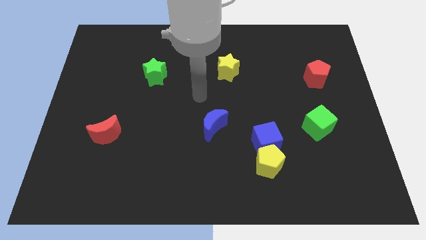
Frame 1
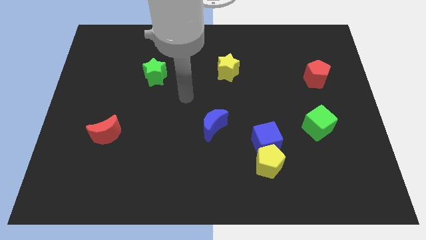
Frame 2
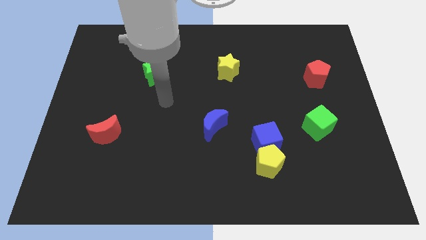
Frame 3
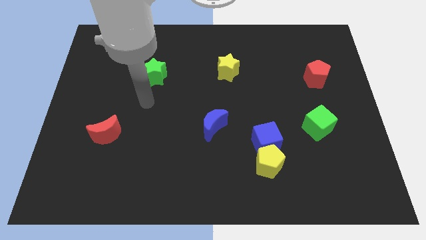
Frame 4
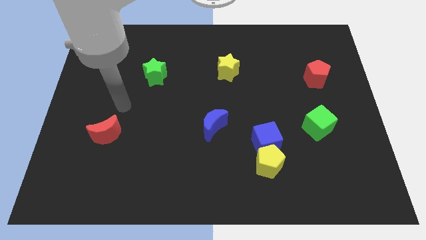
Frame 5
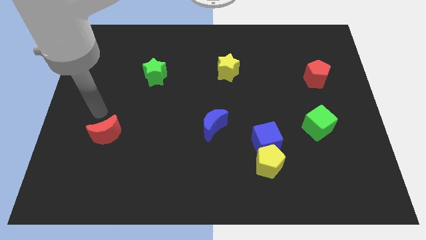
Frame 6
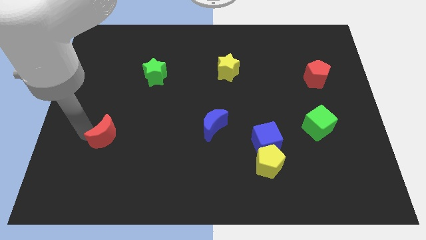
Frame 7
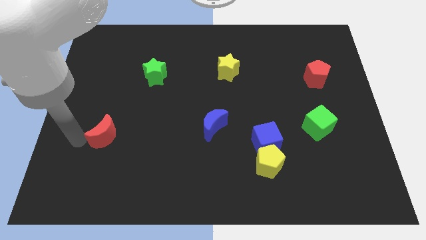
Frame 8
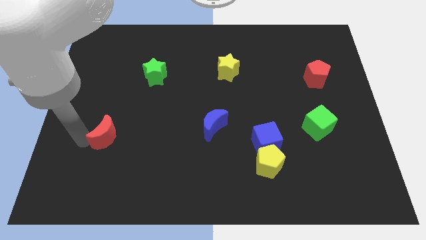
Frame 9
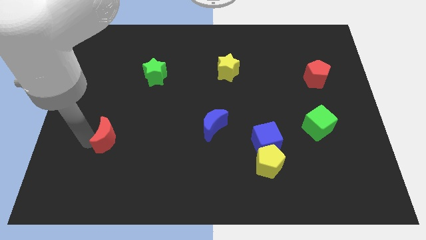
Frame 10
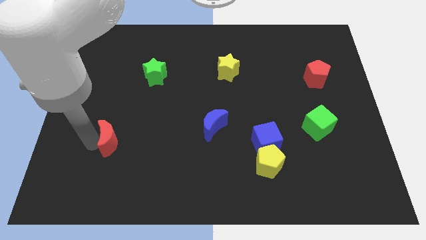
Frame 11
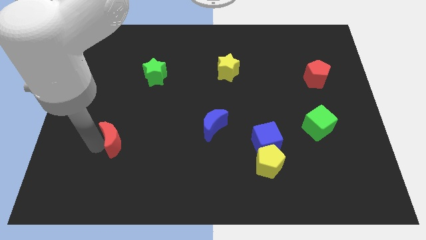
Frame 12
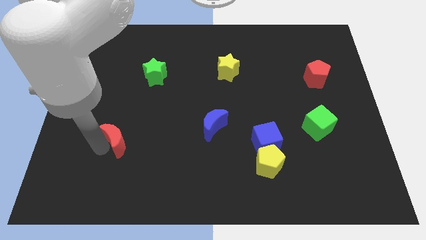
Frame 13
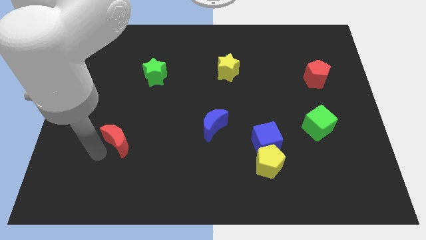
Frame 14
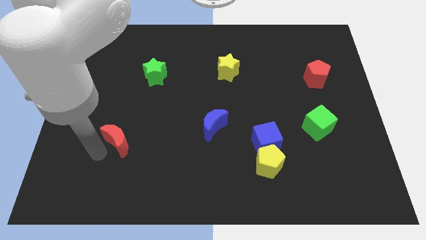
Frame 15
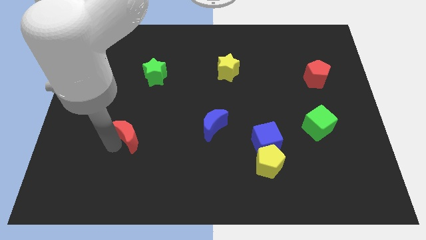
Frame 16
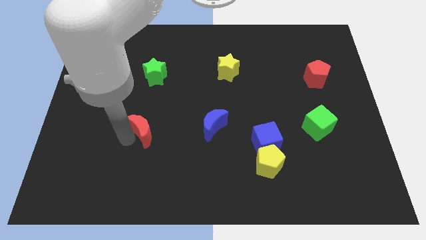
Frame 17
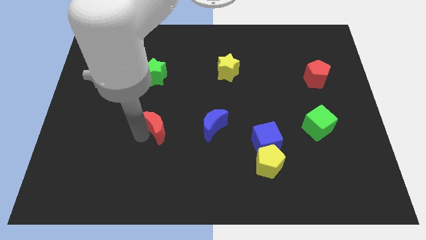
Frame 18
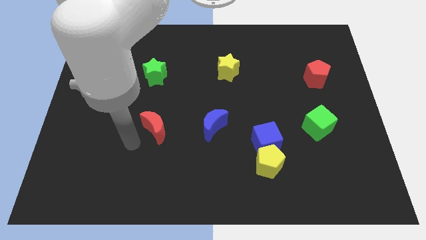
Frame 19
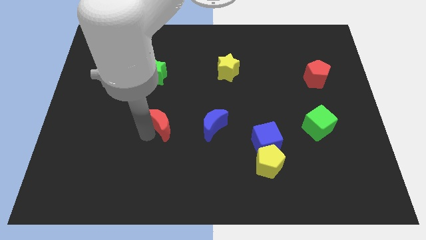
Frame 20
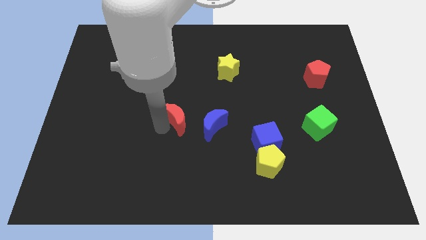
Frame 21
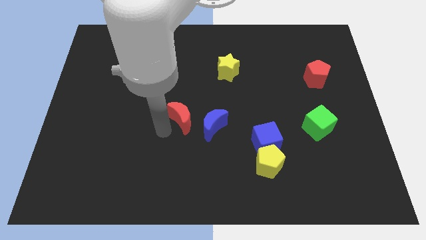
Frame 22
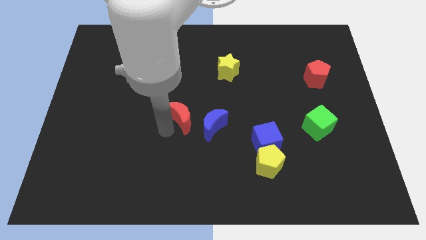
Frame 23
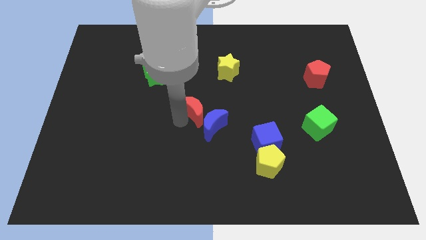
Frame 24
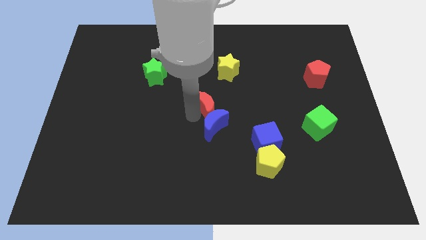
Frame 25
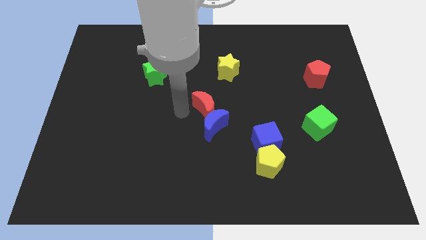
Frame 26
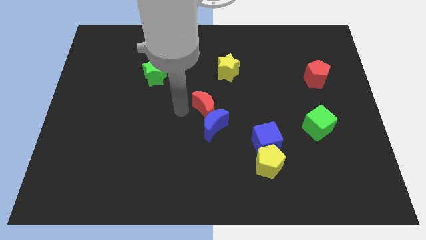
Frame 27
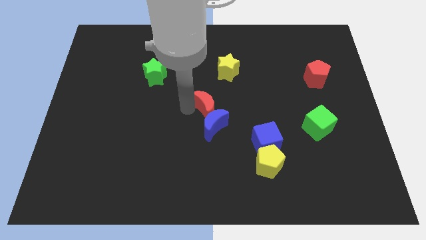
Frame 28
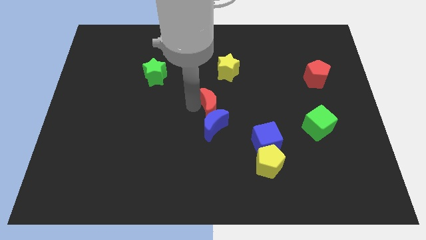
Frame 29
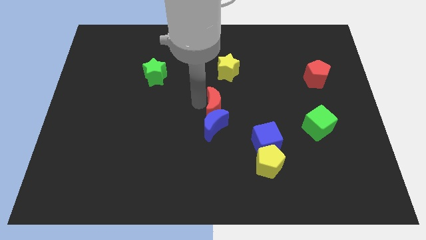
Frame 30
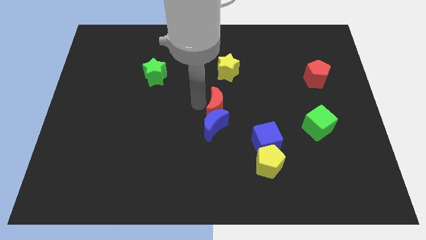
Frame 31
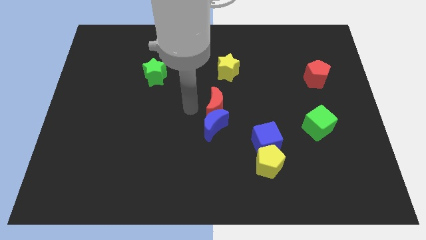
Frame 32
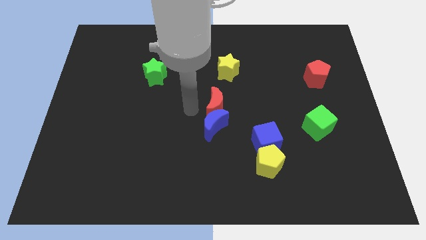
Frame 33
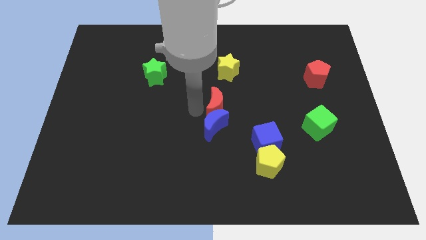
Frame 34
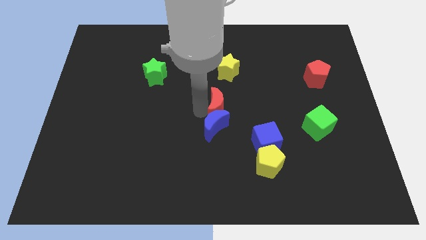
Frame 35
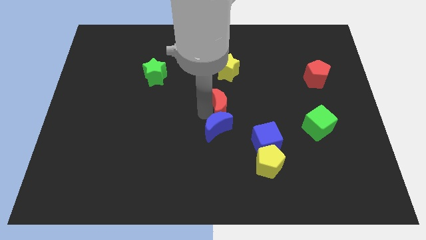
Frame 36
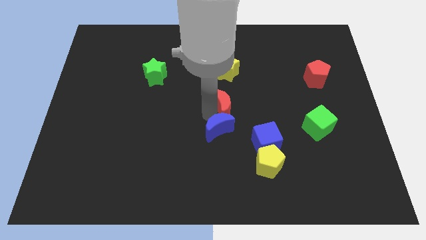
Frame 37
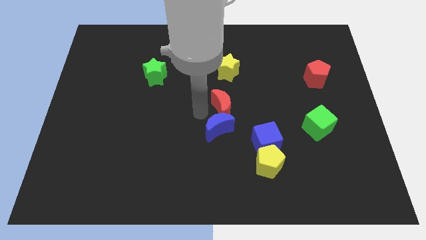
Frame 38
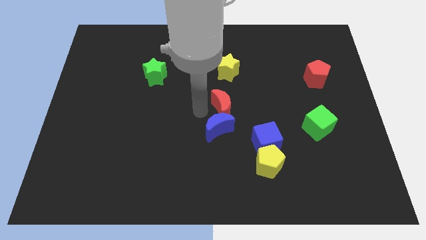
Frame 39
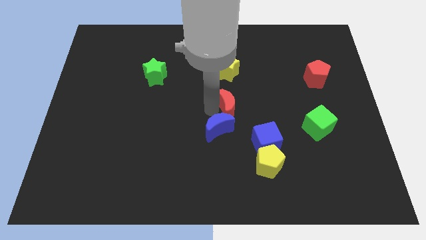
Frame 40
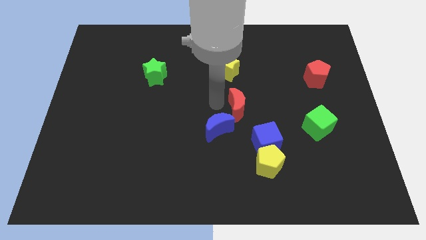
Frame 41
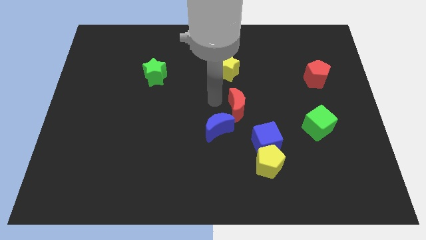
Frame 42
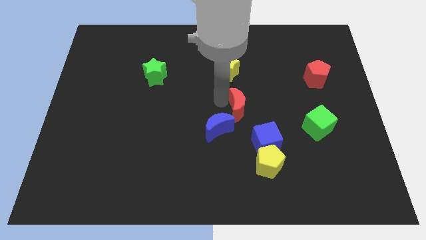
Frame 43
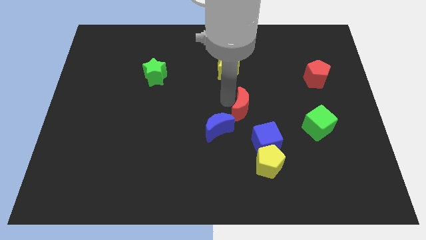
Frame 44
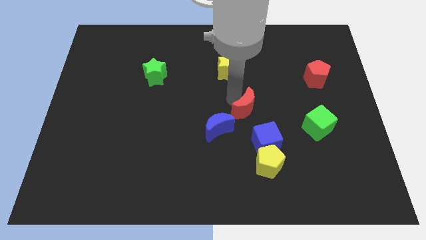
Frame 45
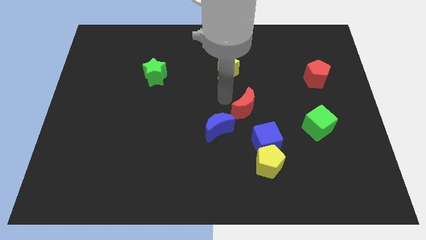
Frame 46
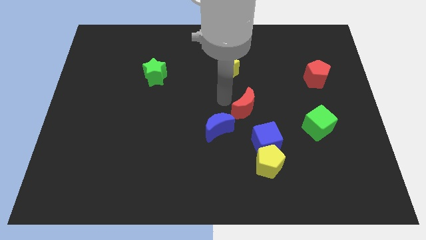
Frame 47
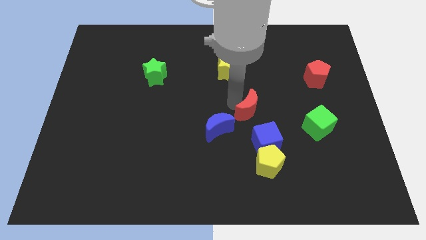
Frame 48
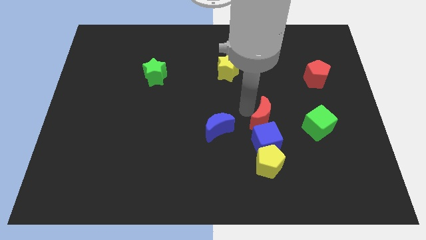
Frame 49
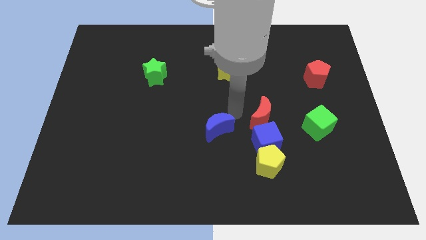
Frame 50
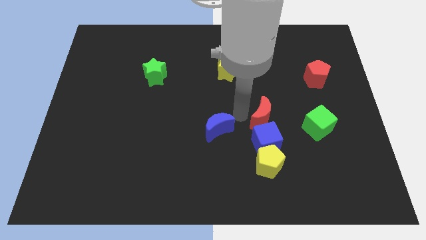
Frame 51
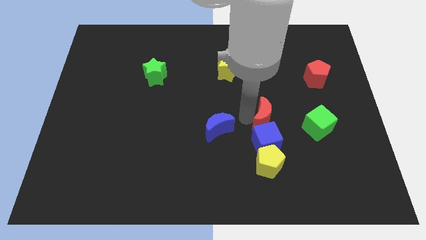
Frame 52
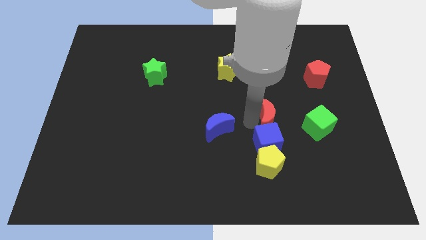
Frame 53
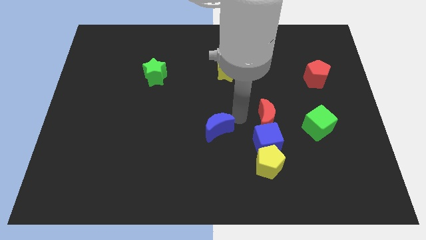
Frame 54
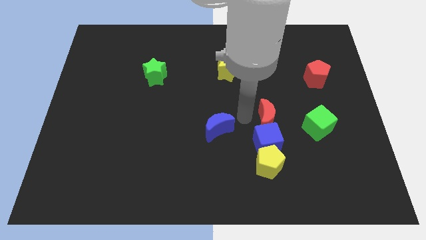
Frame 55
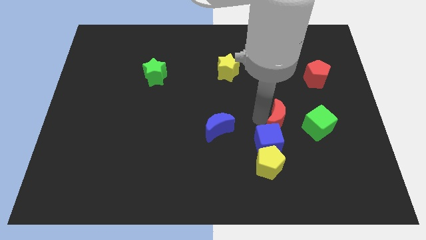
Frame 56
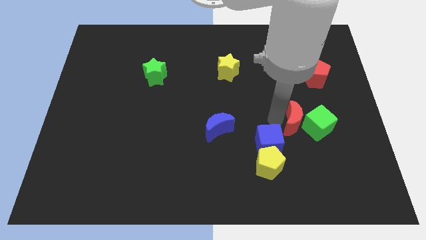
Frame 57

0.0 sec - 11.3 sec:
put the red moon to the green cube

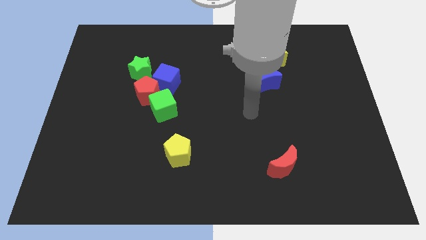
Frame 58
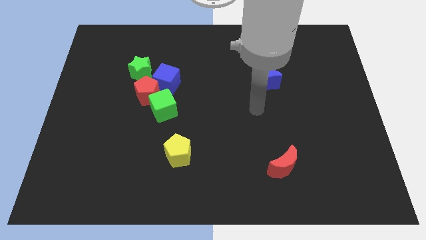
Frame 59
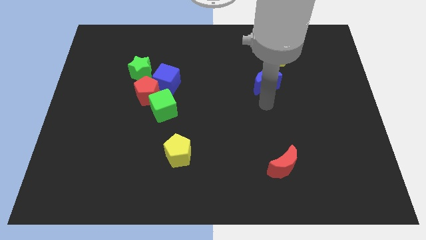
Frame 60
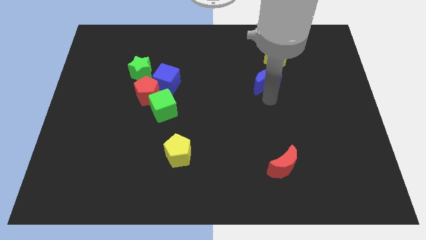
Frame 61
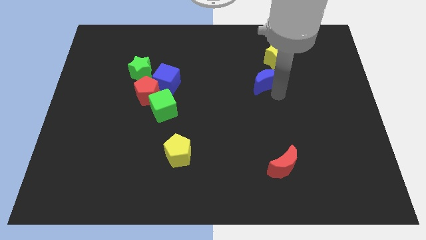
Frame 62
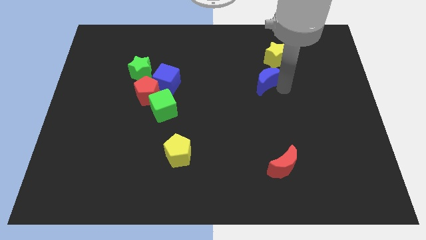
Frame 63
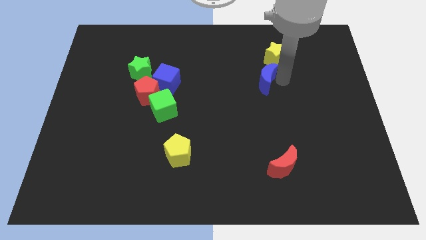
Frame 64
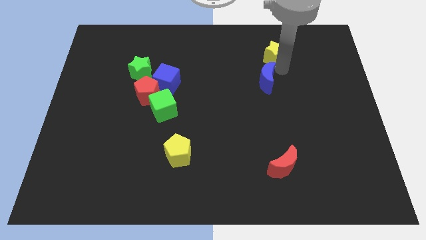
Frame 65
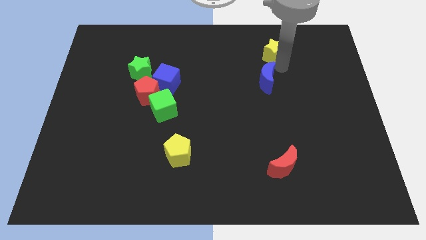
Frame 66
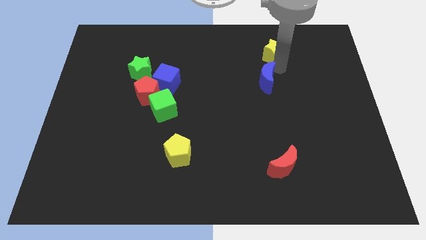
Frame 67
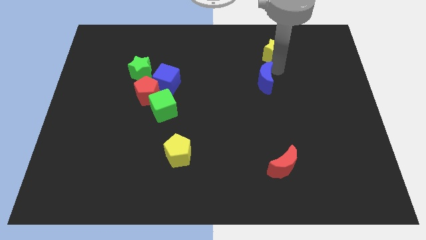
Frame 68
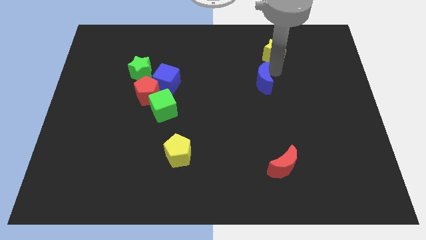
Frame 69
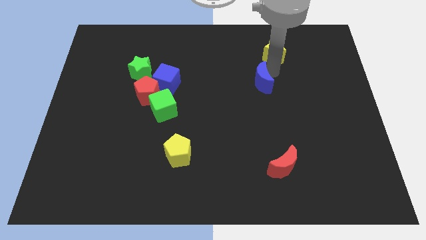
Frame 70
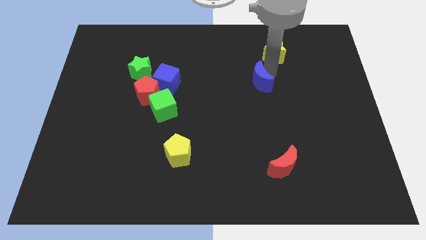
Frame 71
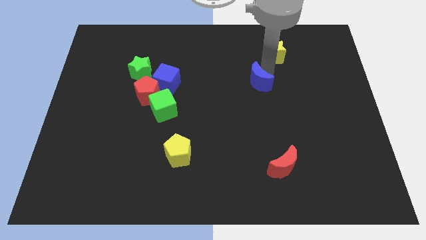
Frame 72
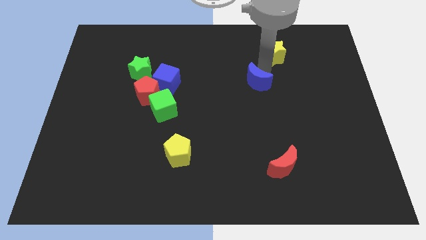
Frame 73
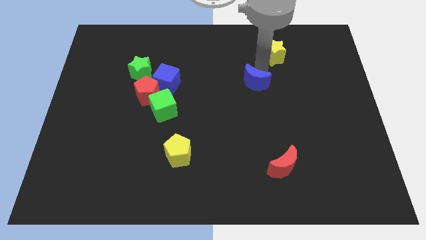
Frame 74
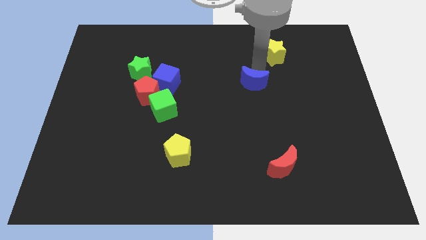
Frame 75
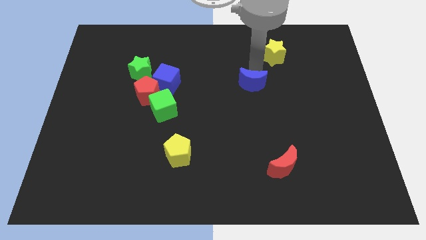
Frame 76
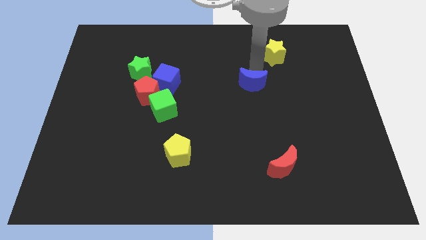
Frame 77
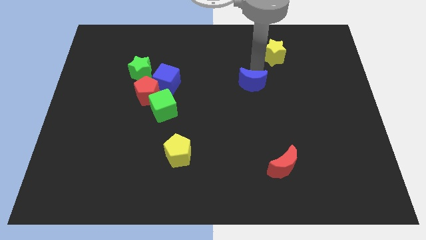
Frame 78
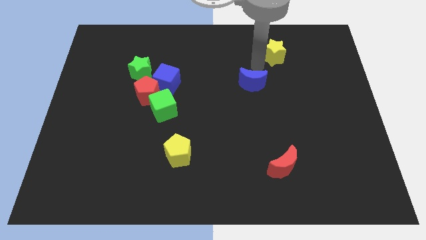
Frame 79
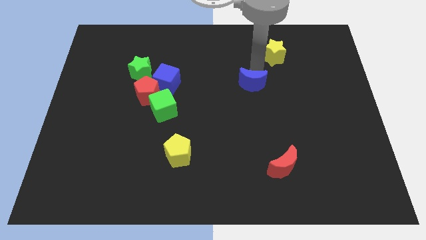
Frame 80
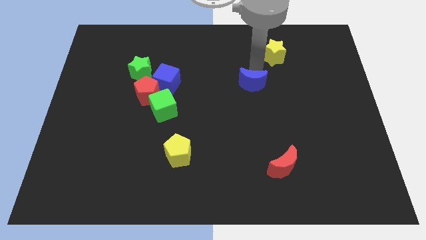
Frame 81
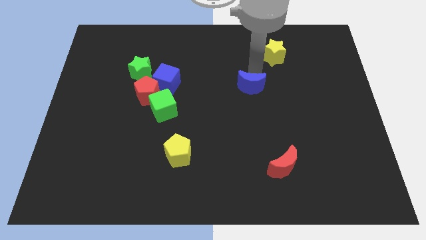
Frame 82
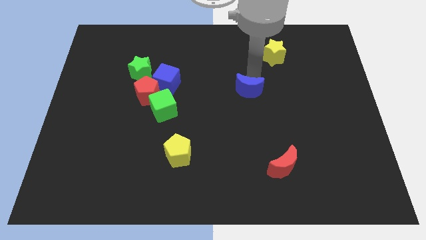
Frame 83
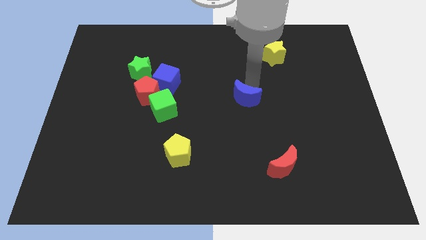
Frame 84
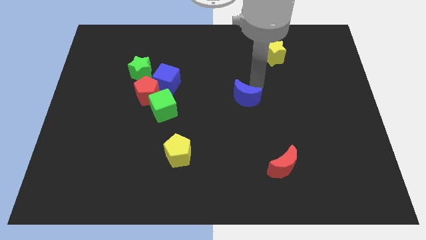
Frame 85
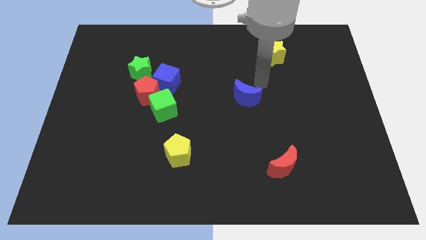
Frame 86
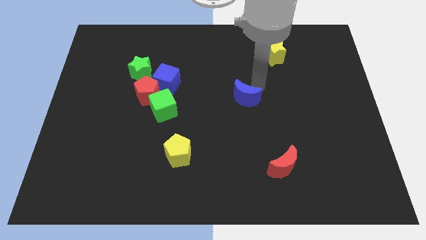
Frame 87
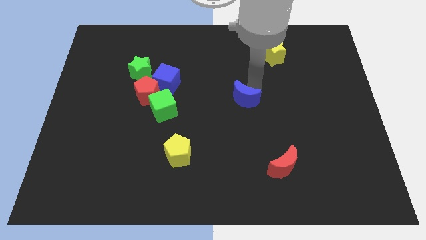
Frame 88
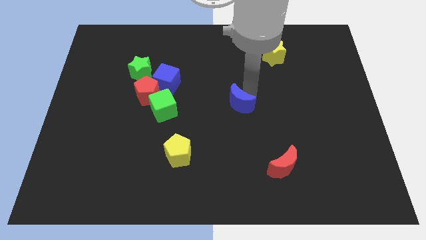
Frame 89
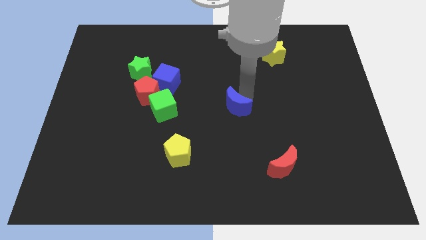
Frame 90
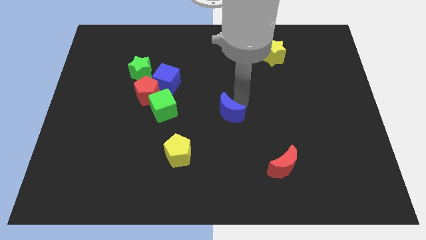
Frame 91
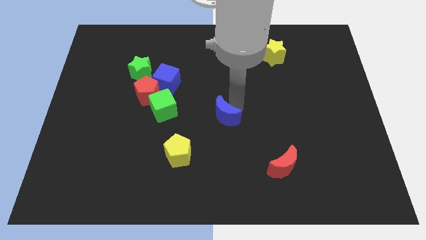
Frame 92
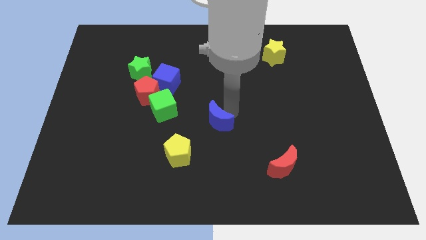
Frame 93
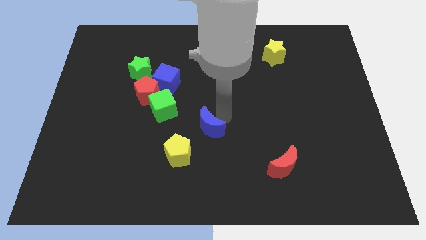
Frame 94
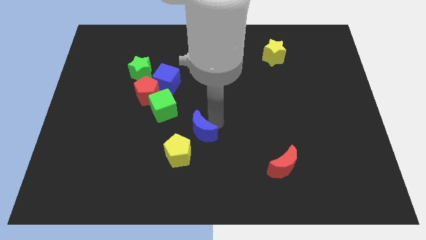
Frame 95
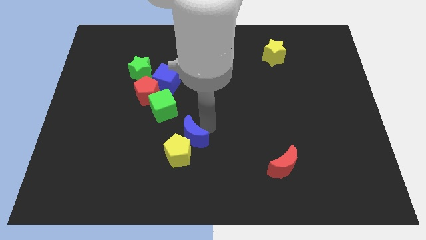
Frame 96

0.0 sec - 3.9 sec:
slide the blue moon to the yellow pentagon
